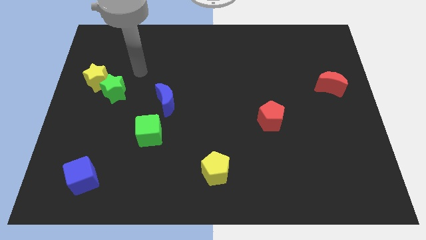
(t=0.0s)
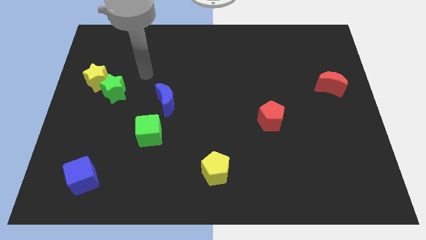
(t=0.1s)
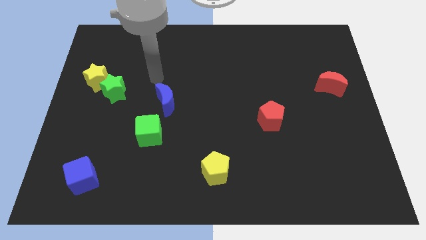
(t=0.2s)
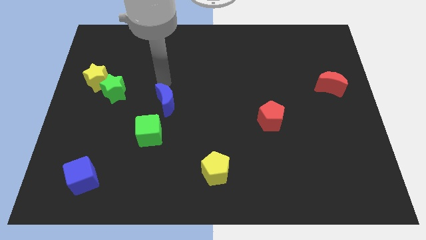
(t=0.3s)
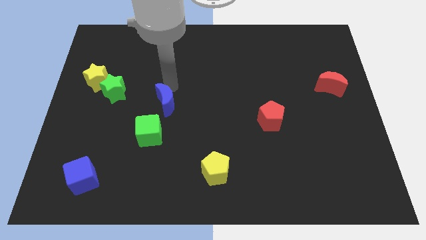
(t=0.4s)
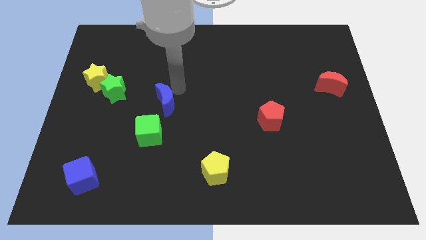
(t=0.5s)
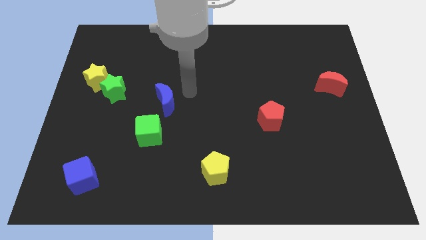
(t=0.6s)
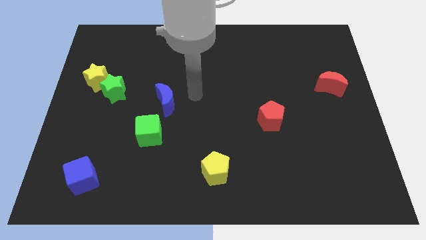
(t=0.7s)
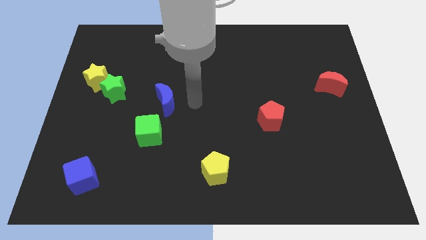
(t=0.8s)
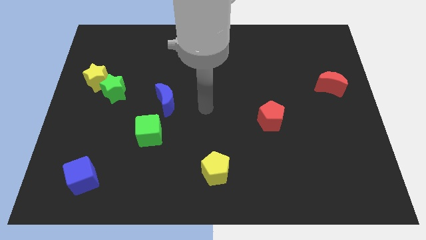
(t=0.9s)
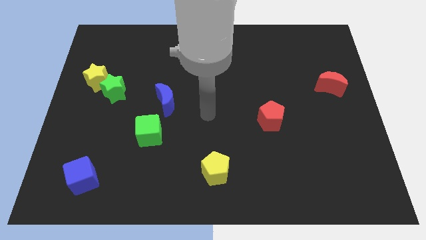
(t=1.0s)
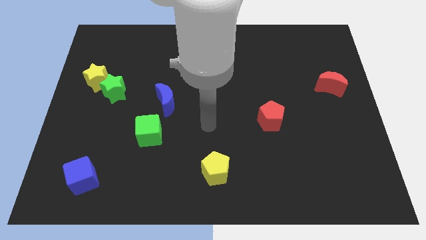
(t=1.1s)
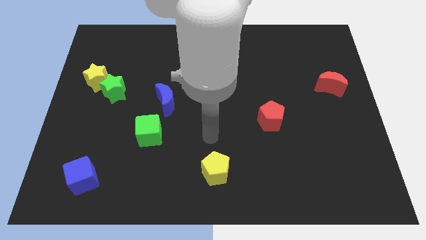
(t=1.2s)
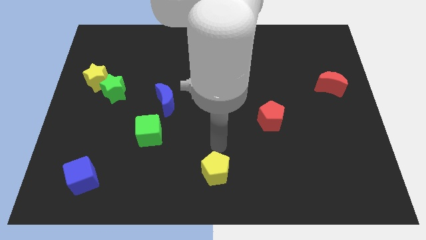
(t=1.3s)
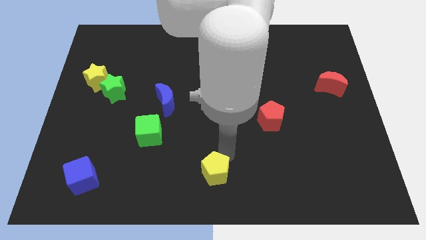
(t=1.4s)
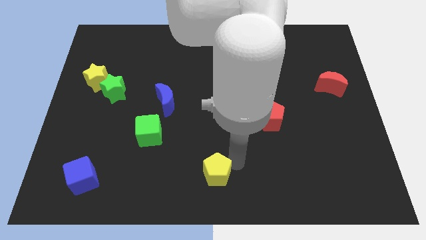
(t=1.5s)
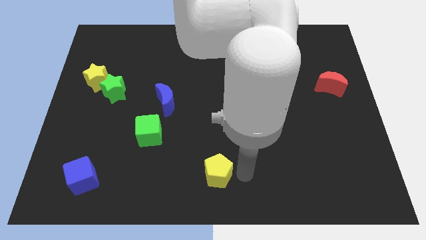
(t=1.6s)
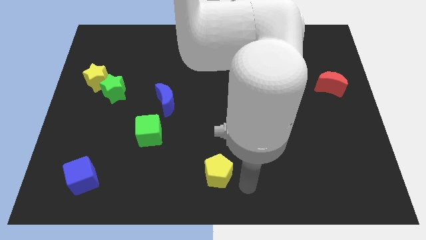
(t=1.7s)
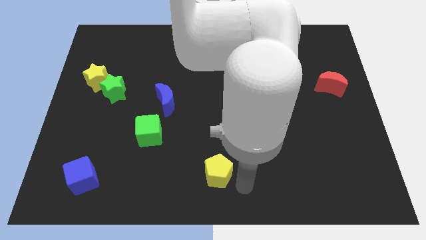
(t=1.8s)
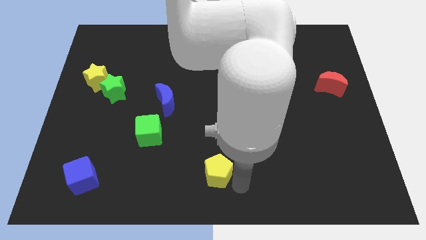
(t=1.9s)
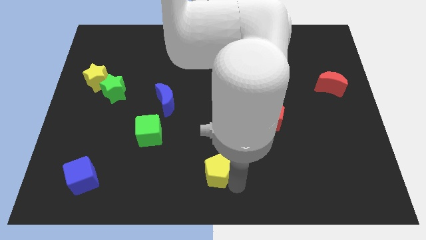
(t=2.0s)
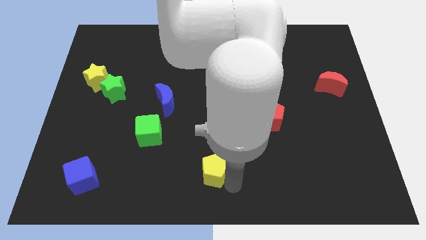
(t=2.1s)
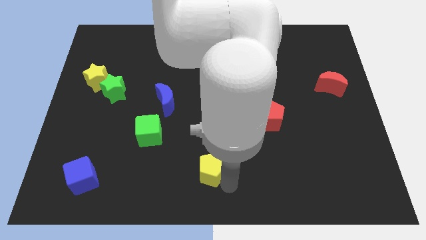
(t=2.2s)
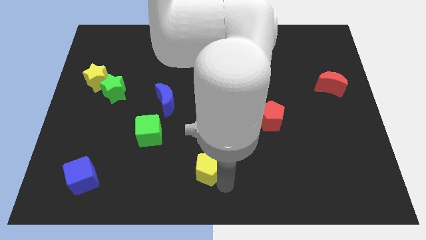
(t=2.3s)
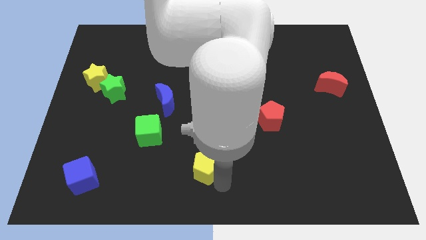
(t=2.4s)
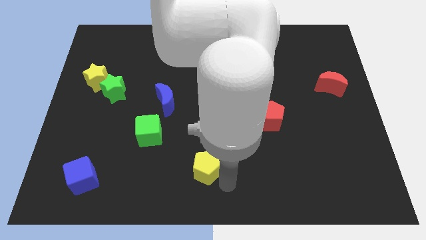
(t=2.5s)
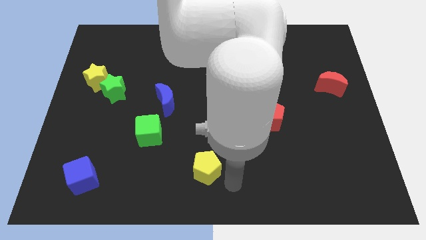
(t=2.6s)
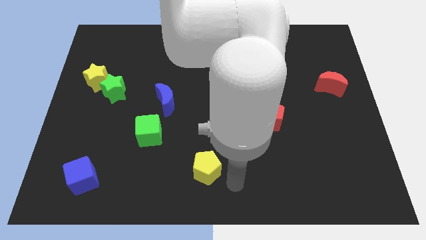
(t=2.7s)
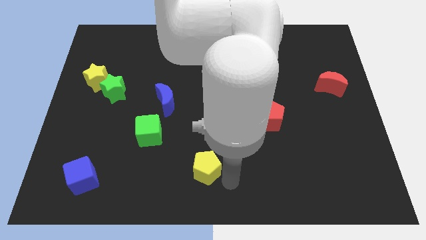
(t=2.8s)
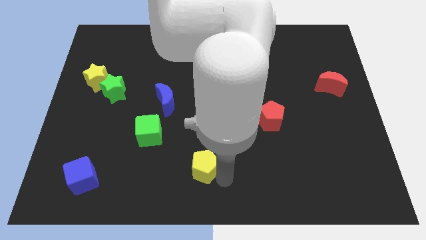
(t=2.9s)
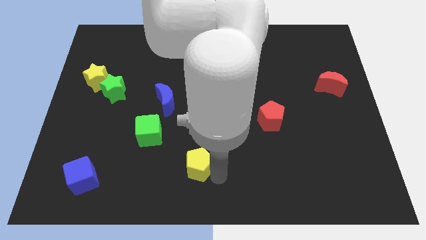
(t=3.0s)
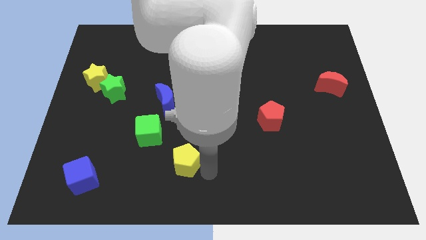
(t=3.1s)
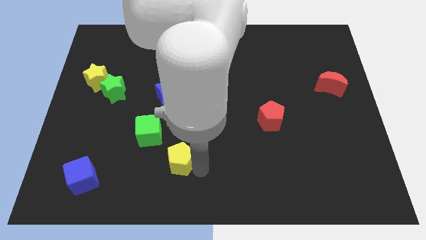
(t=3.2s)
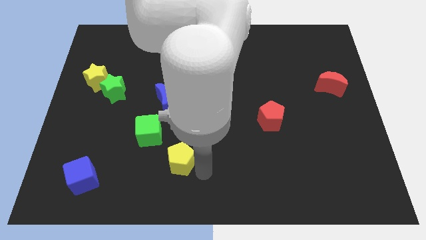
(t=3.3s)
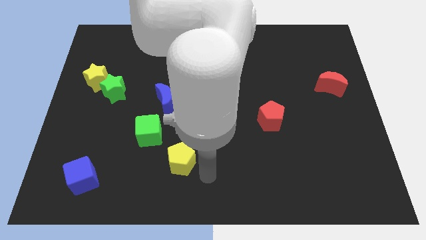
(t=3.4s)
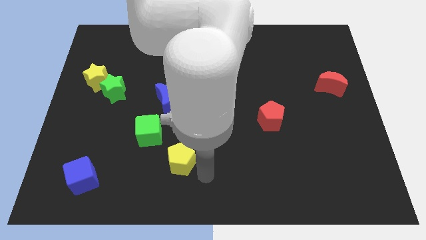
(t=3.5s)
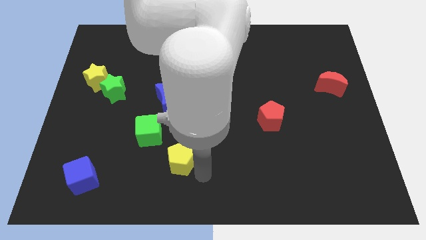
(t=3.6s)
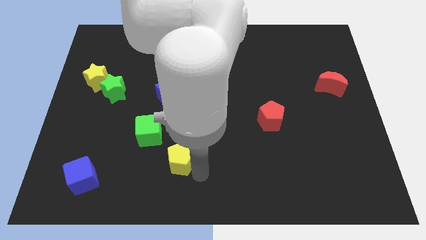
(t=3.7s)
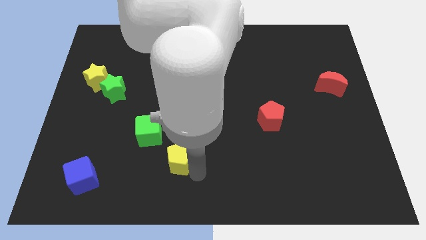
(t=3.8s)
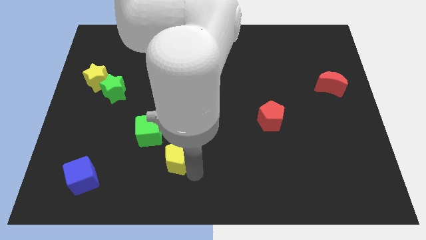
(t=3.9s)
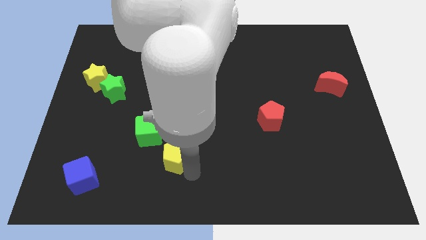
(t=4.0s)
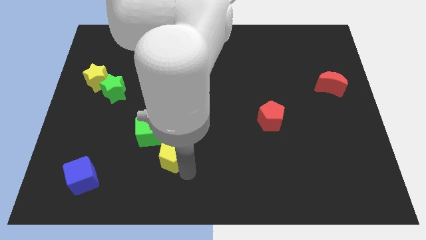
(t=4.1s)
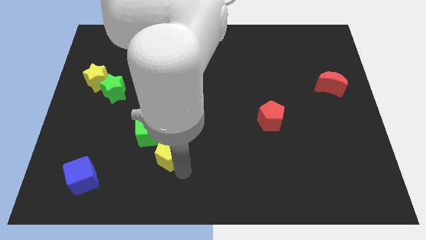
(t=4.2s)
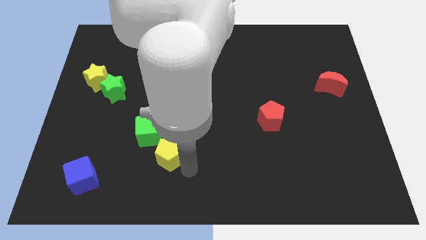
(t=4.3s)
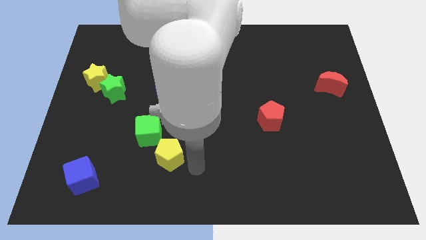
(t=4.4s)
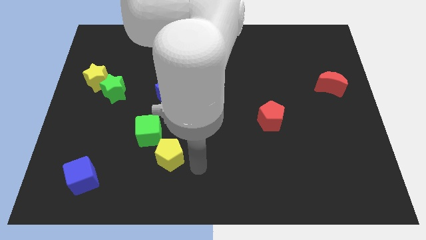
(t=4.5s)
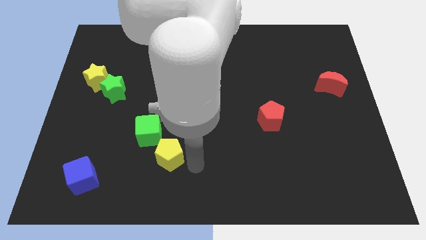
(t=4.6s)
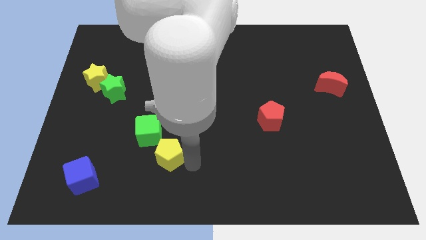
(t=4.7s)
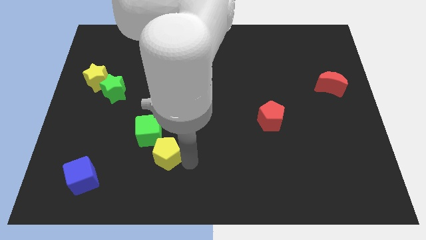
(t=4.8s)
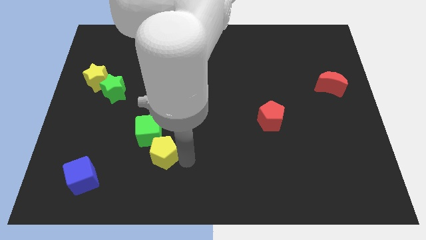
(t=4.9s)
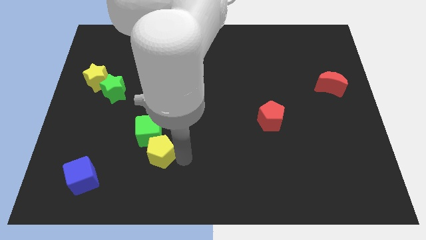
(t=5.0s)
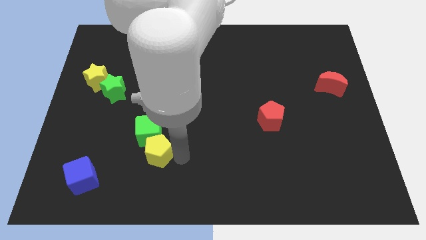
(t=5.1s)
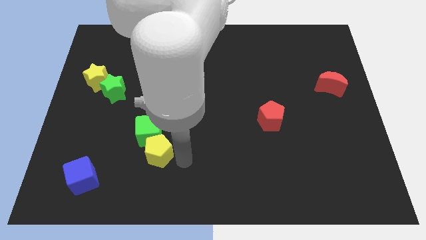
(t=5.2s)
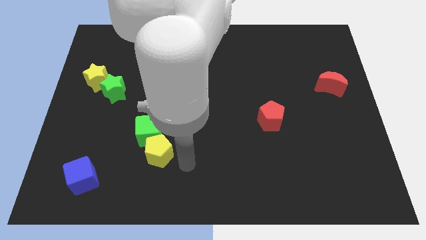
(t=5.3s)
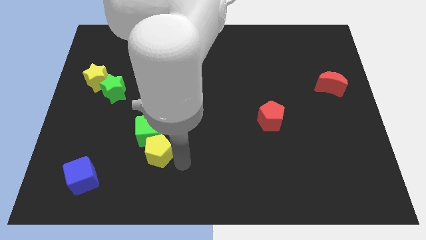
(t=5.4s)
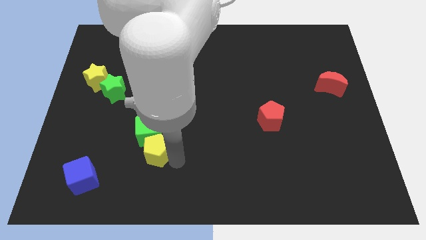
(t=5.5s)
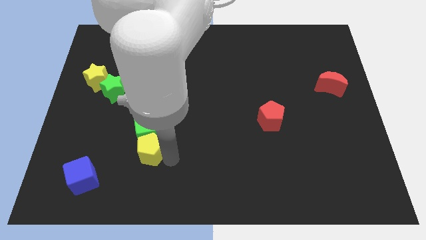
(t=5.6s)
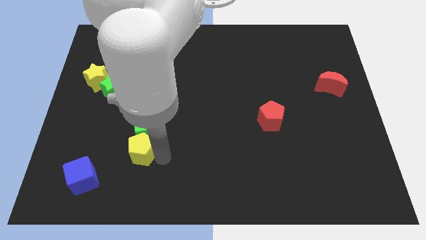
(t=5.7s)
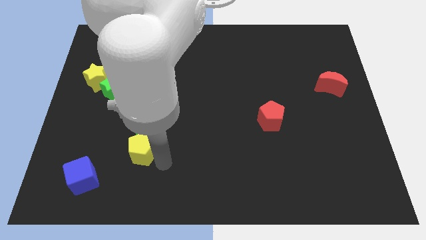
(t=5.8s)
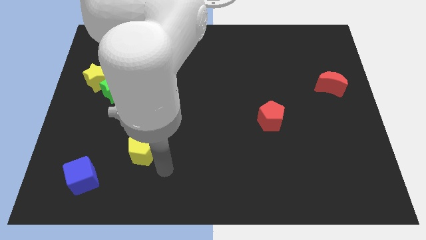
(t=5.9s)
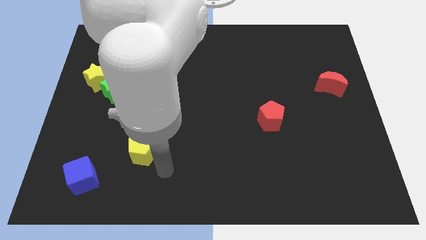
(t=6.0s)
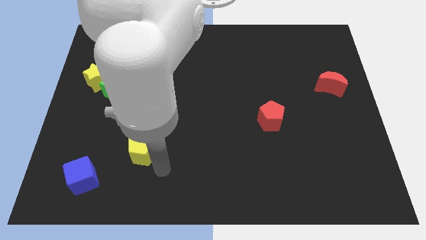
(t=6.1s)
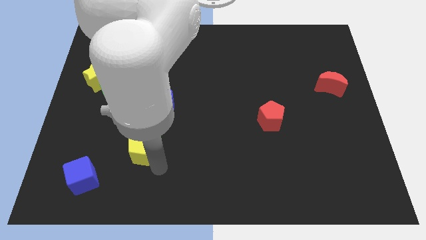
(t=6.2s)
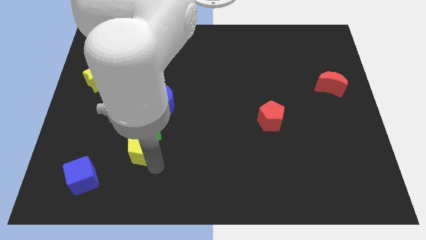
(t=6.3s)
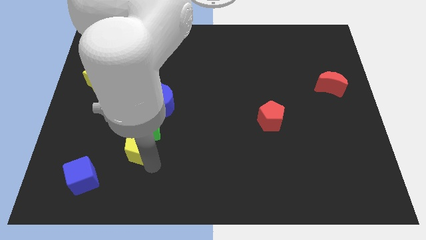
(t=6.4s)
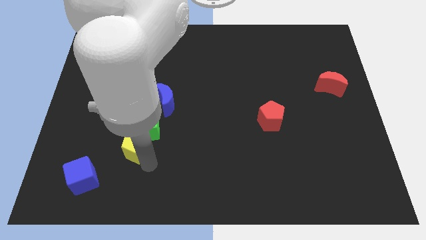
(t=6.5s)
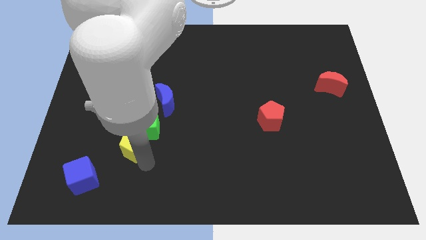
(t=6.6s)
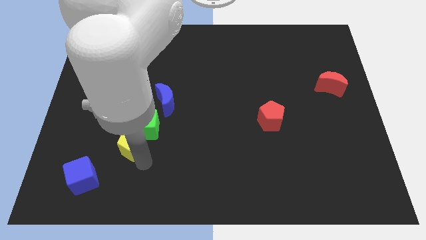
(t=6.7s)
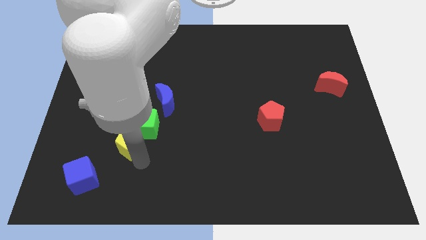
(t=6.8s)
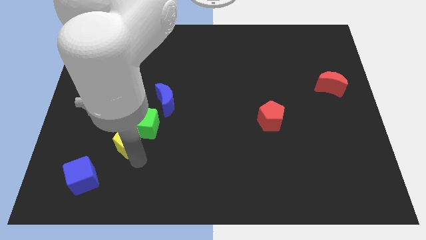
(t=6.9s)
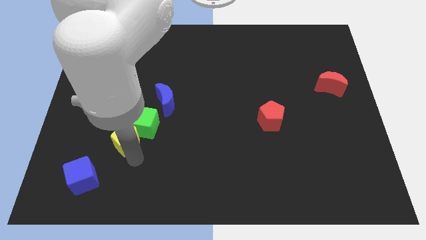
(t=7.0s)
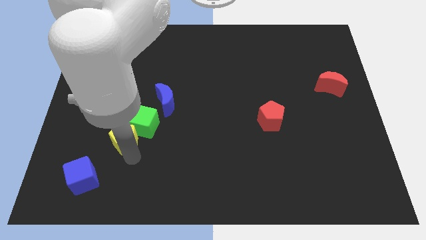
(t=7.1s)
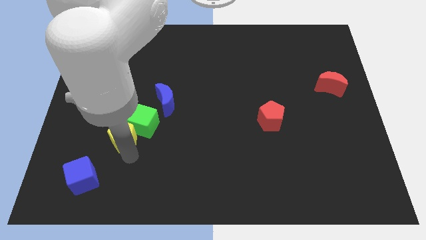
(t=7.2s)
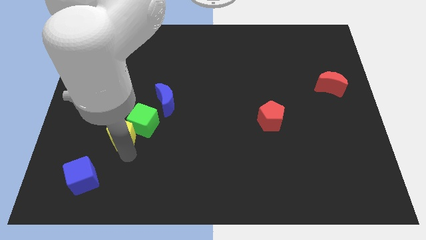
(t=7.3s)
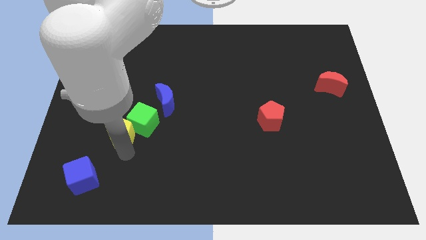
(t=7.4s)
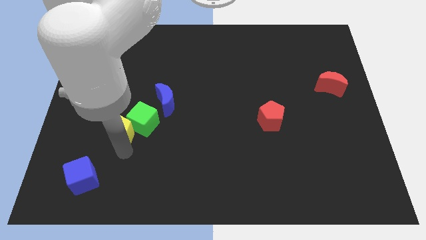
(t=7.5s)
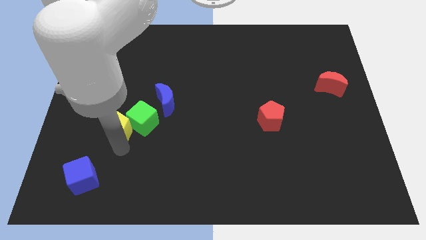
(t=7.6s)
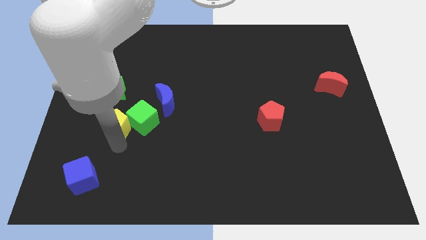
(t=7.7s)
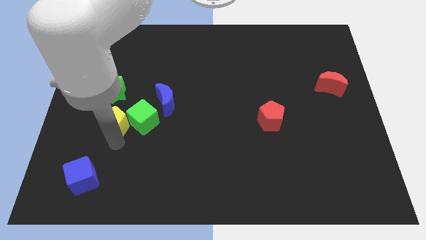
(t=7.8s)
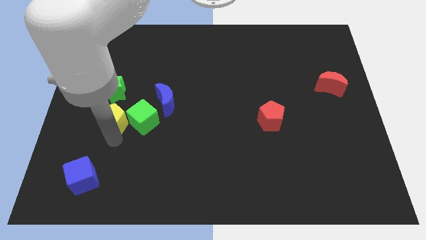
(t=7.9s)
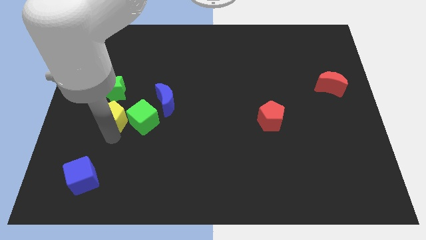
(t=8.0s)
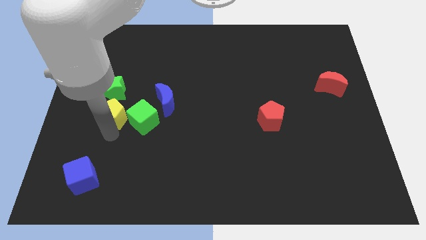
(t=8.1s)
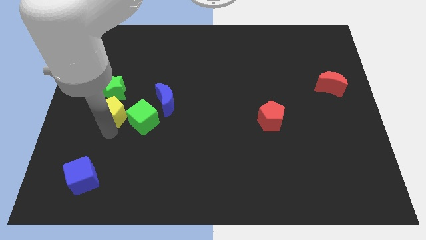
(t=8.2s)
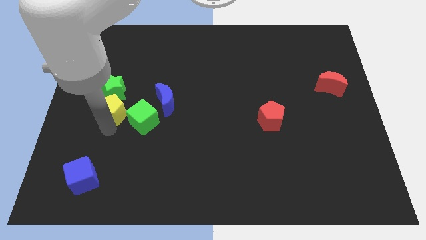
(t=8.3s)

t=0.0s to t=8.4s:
slide the yellow pentagon to the bottom right side of the yellow star
